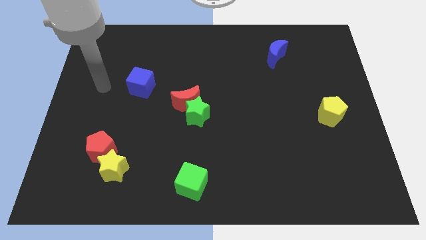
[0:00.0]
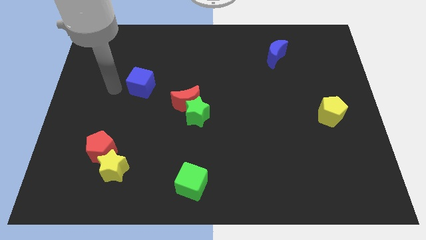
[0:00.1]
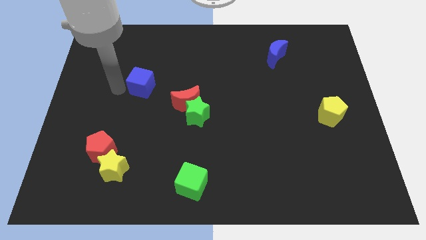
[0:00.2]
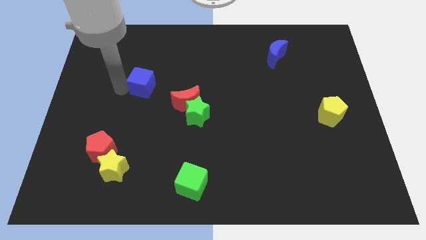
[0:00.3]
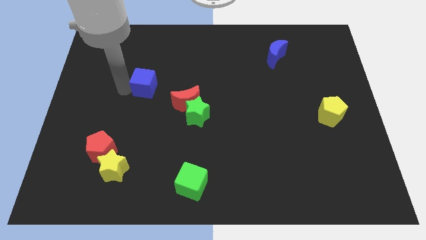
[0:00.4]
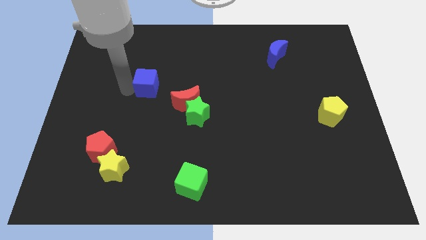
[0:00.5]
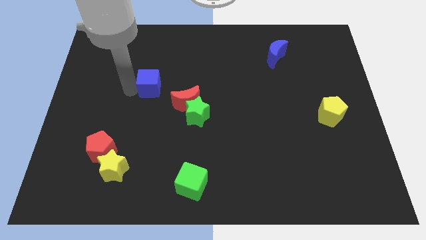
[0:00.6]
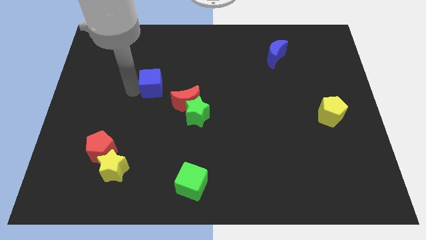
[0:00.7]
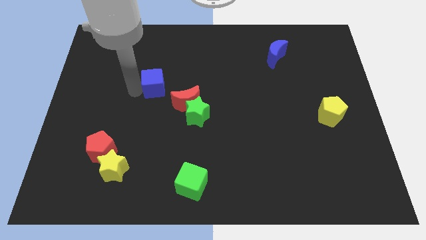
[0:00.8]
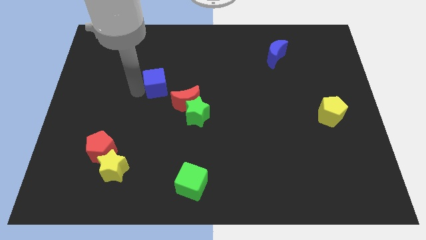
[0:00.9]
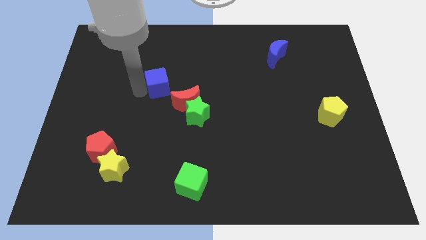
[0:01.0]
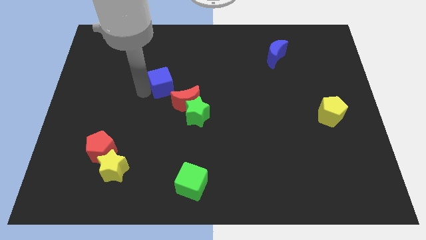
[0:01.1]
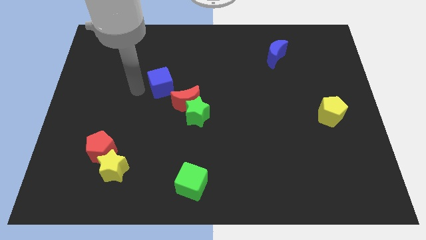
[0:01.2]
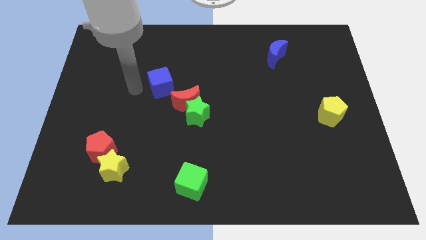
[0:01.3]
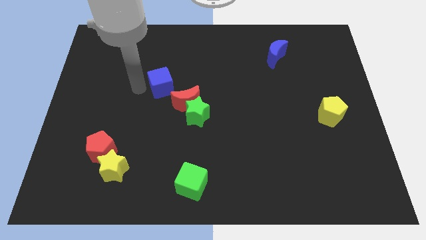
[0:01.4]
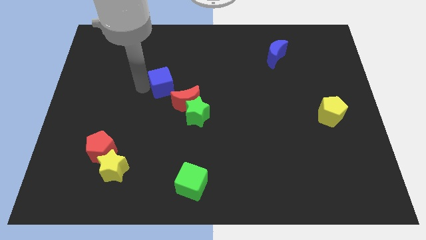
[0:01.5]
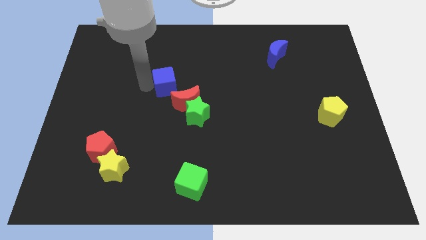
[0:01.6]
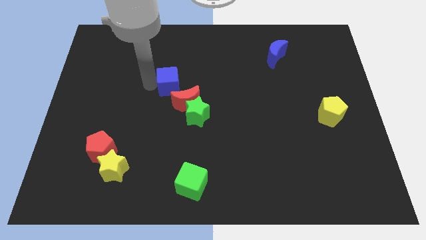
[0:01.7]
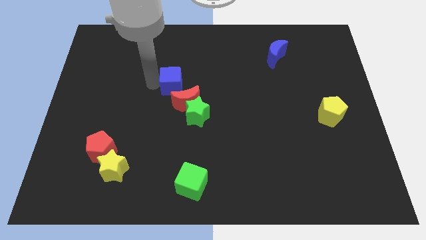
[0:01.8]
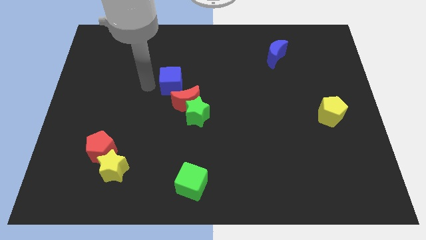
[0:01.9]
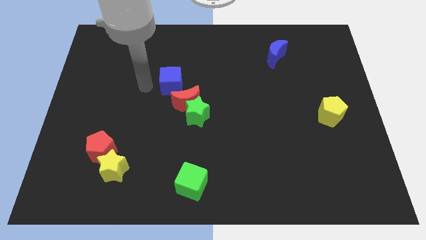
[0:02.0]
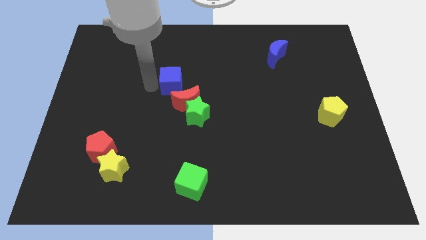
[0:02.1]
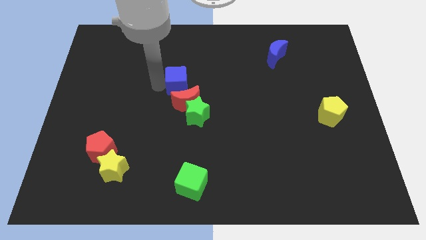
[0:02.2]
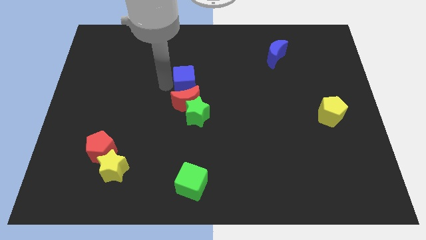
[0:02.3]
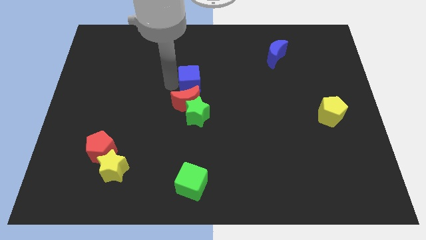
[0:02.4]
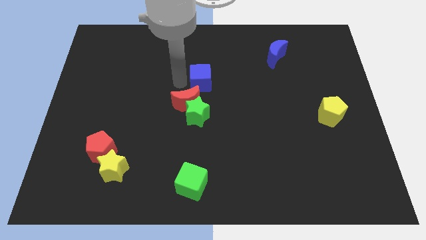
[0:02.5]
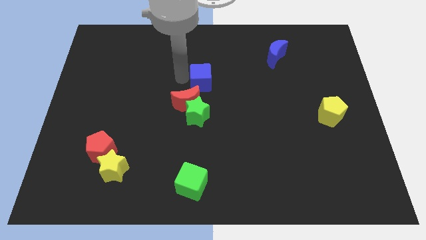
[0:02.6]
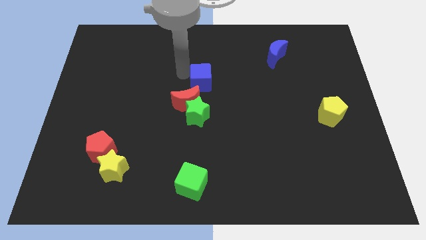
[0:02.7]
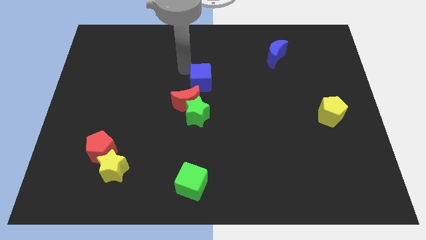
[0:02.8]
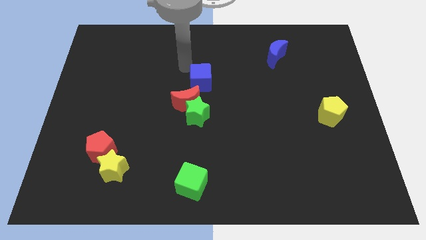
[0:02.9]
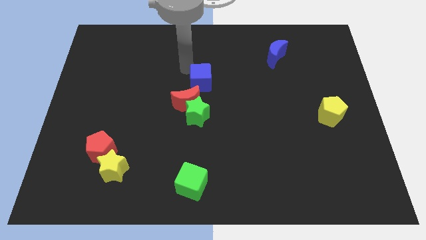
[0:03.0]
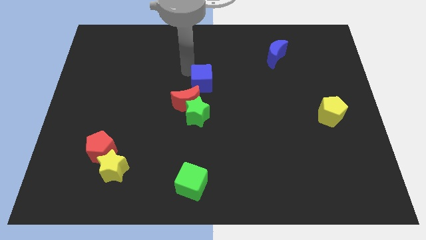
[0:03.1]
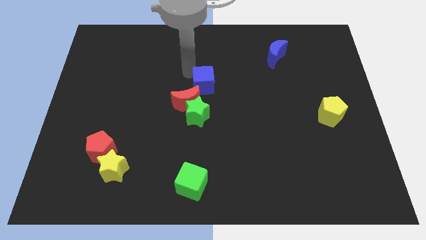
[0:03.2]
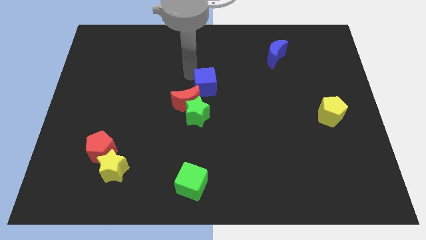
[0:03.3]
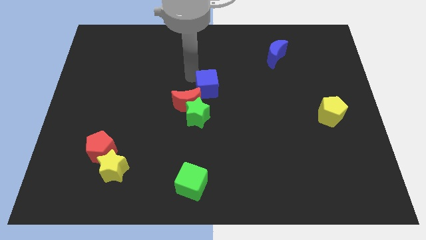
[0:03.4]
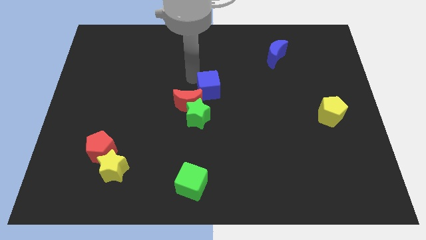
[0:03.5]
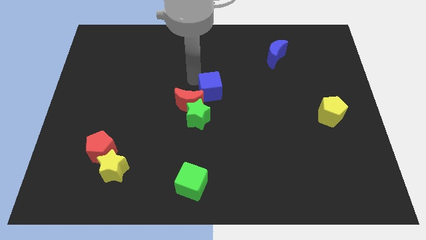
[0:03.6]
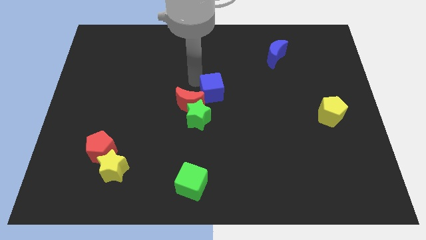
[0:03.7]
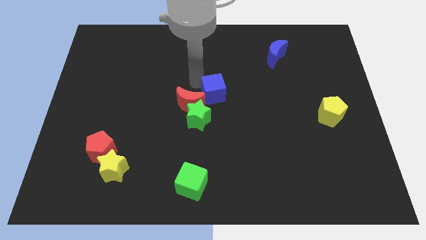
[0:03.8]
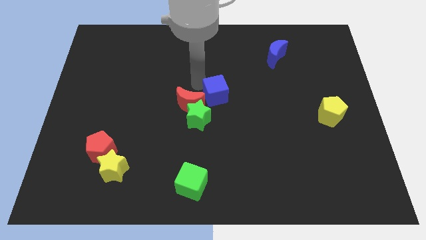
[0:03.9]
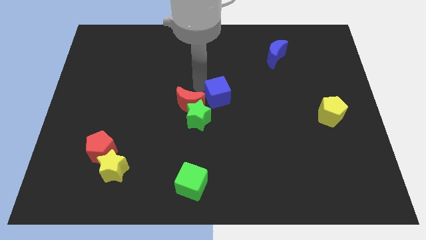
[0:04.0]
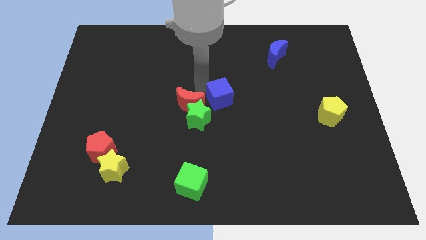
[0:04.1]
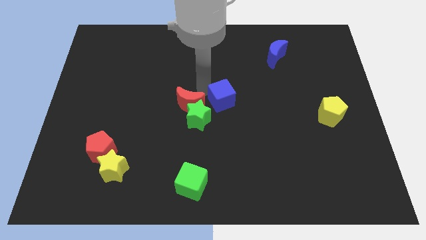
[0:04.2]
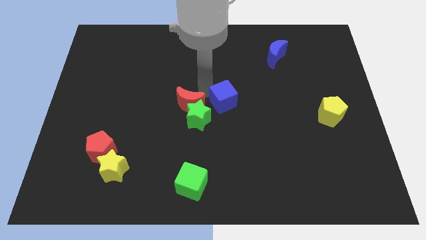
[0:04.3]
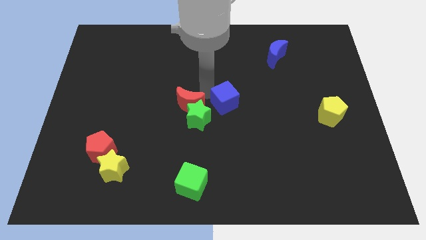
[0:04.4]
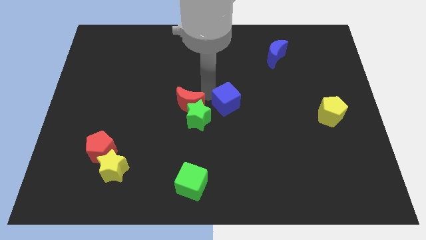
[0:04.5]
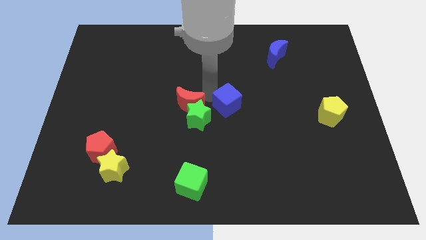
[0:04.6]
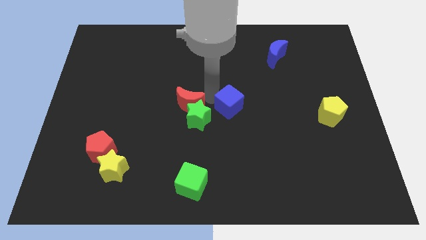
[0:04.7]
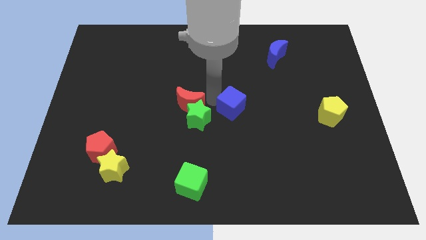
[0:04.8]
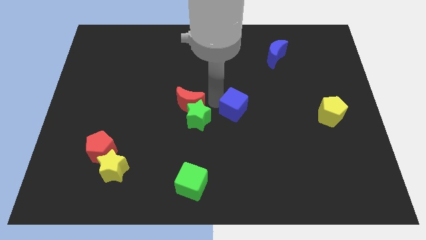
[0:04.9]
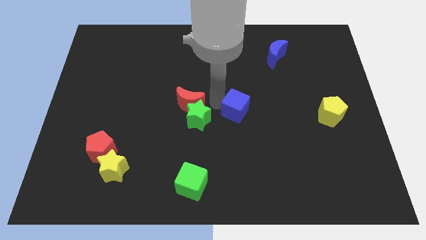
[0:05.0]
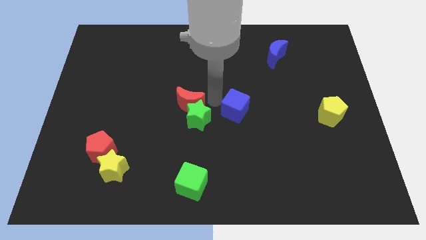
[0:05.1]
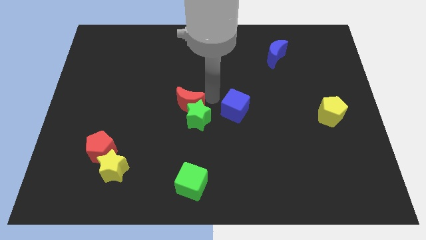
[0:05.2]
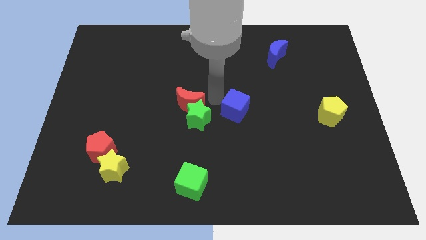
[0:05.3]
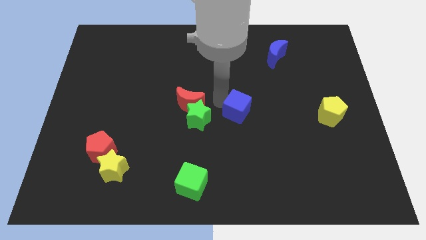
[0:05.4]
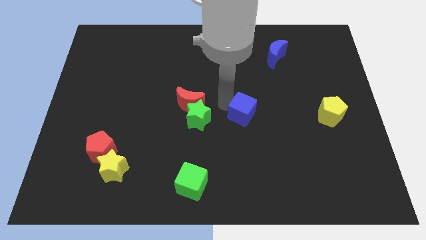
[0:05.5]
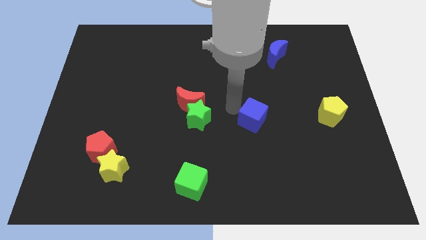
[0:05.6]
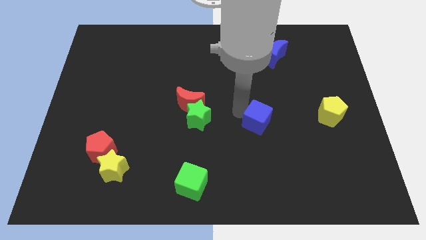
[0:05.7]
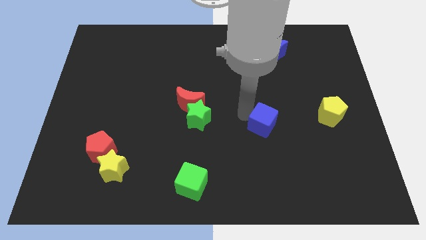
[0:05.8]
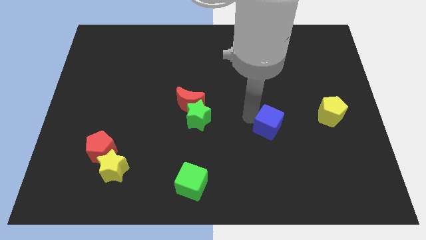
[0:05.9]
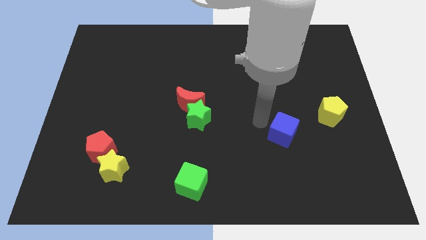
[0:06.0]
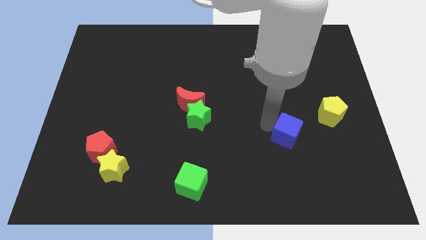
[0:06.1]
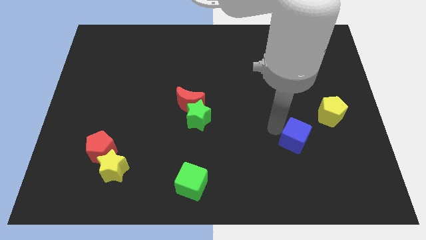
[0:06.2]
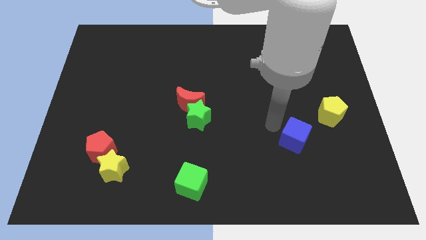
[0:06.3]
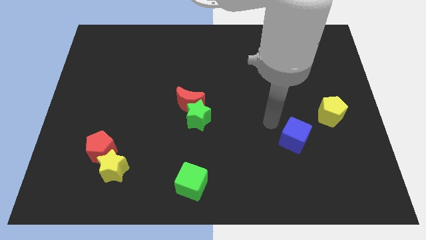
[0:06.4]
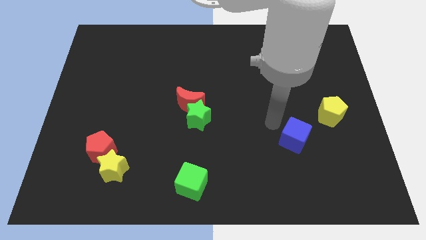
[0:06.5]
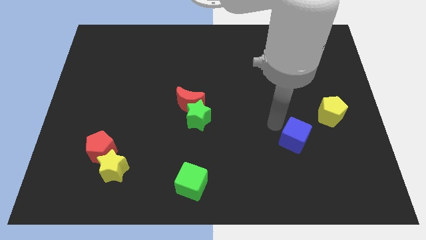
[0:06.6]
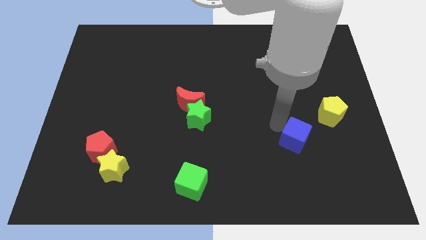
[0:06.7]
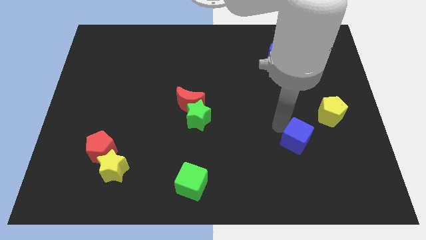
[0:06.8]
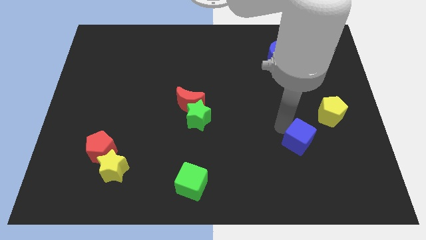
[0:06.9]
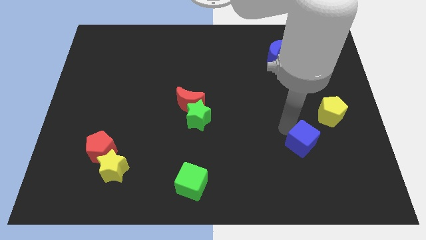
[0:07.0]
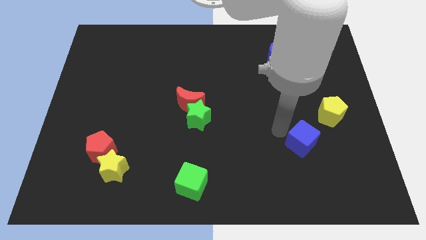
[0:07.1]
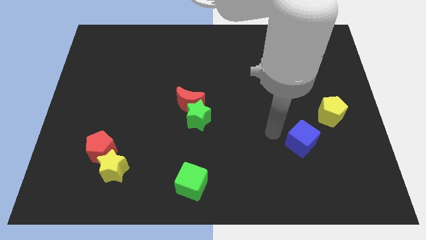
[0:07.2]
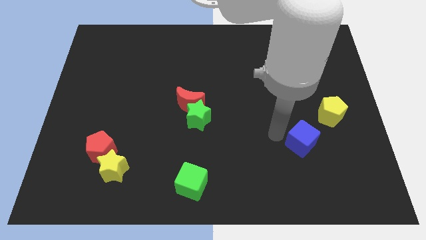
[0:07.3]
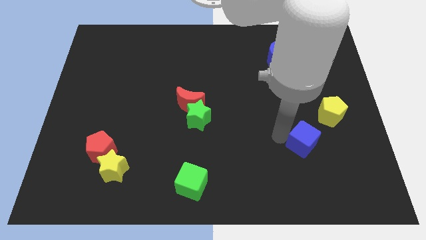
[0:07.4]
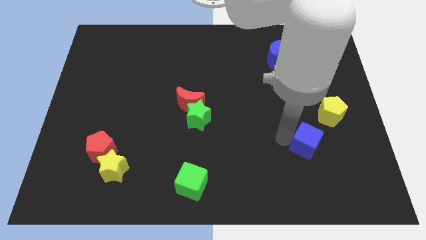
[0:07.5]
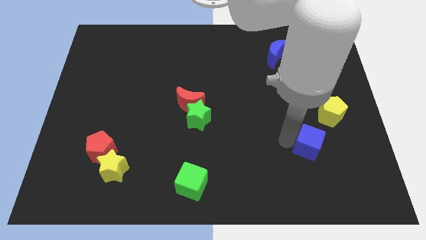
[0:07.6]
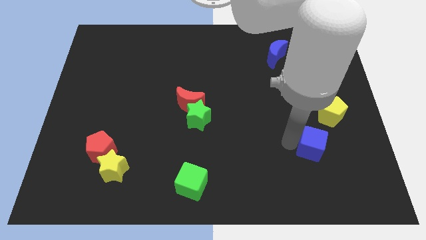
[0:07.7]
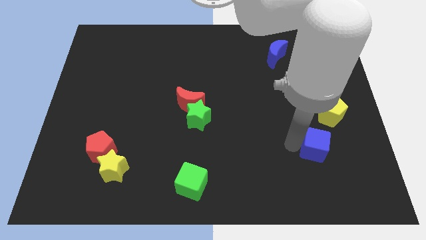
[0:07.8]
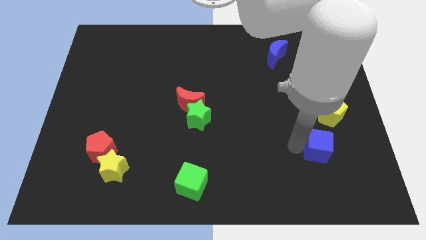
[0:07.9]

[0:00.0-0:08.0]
move the blue cube to the bottom side of the yellow pentagon
